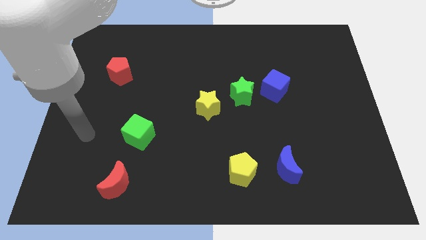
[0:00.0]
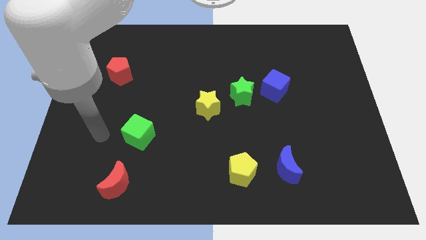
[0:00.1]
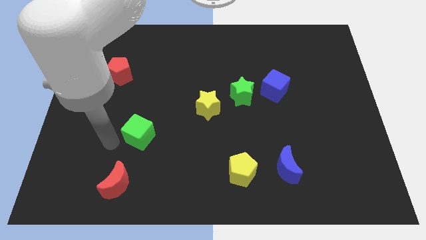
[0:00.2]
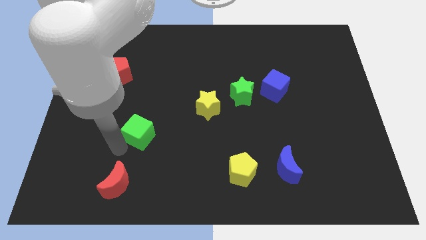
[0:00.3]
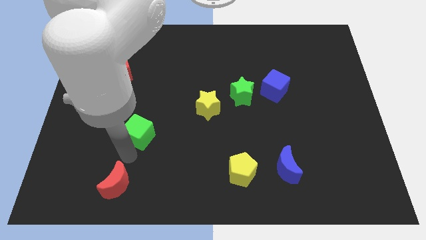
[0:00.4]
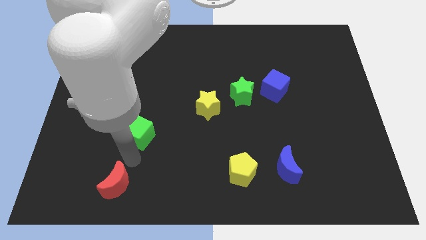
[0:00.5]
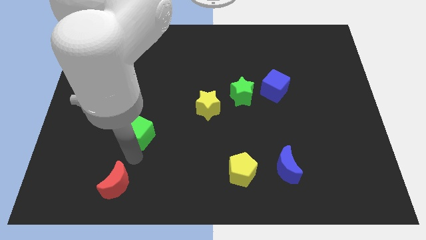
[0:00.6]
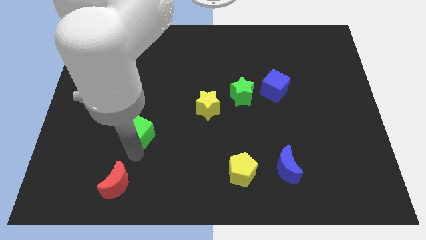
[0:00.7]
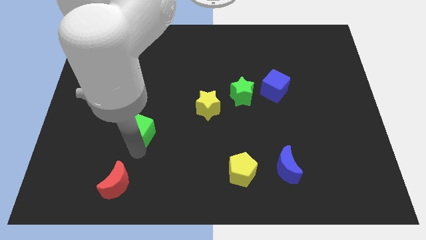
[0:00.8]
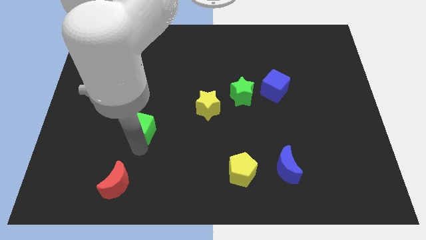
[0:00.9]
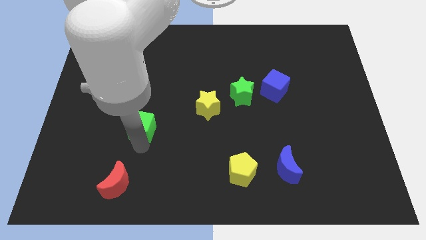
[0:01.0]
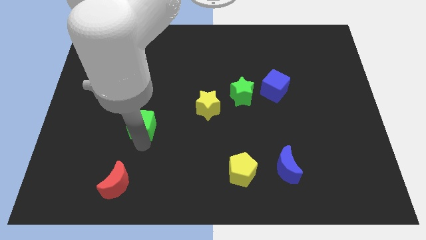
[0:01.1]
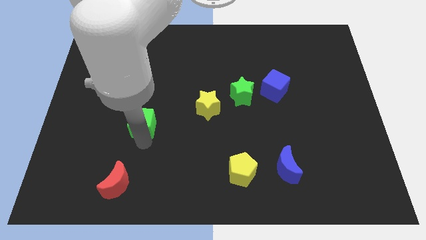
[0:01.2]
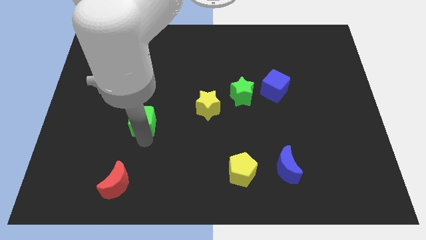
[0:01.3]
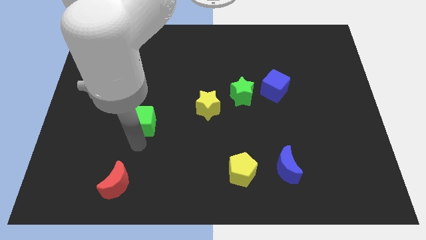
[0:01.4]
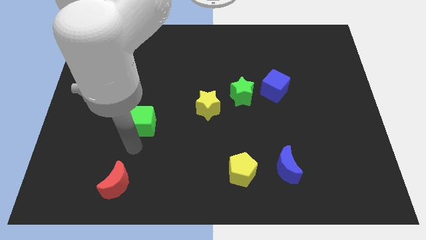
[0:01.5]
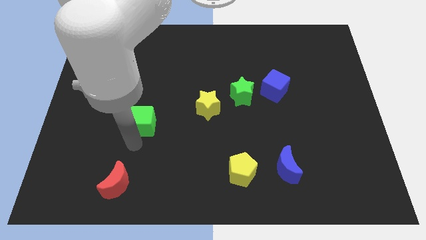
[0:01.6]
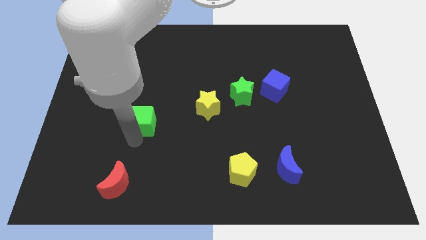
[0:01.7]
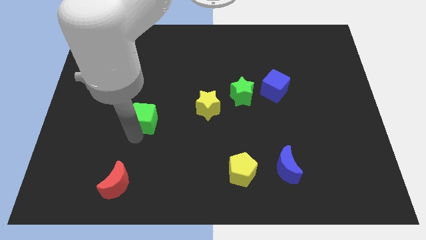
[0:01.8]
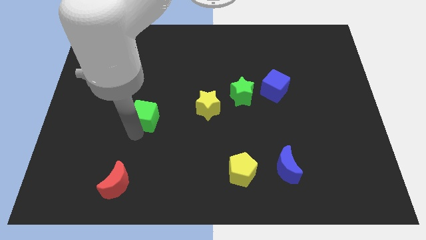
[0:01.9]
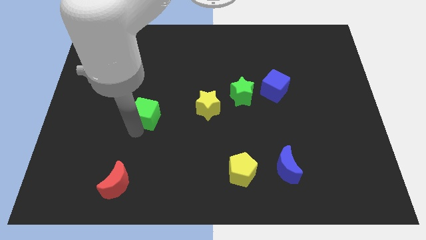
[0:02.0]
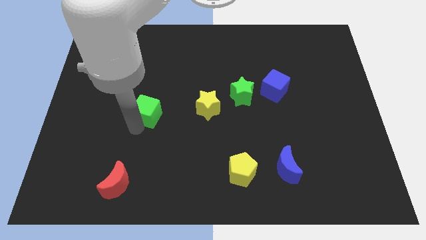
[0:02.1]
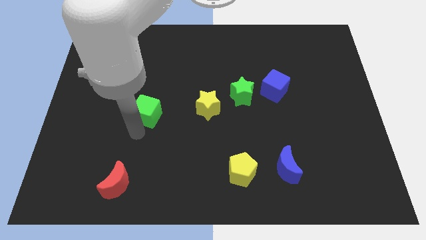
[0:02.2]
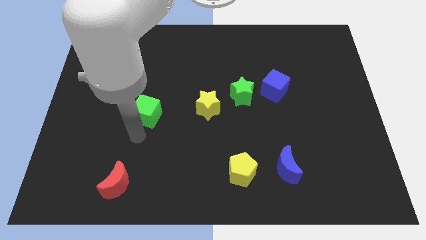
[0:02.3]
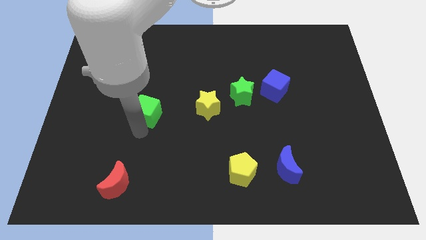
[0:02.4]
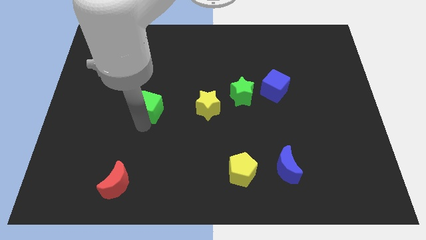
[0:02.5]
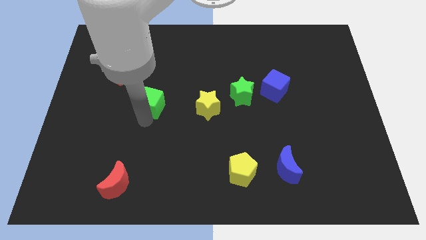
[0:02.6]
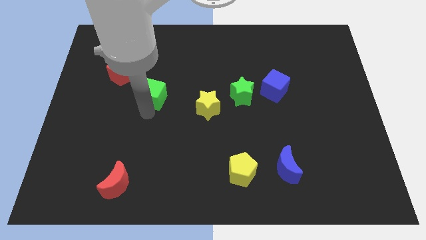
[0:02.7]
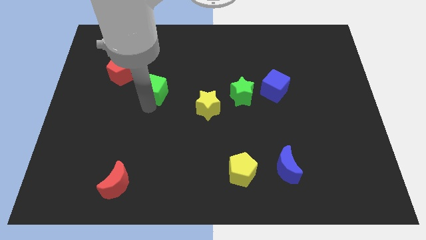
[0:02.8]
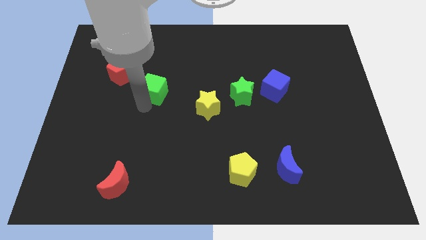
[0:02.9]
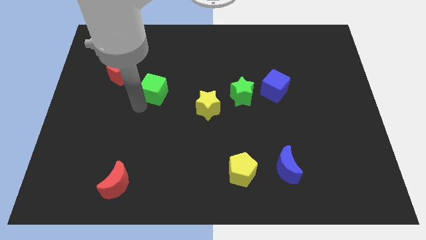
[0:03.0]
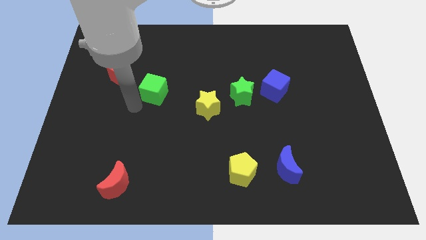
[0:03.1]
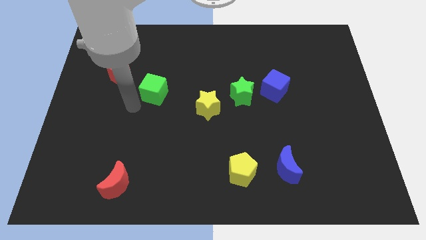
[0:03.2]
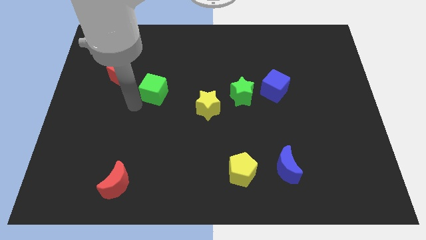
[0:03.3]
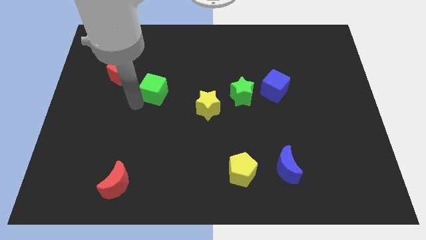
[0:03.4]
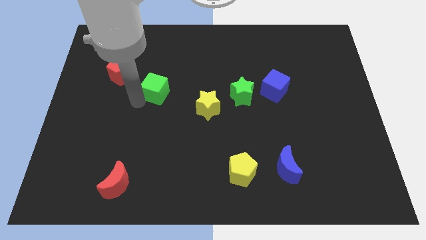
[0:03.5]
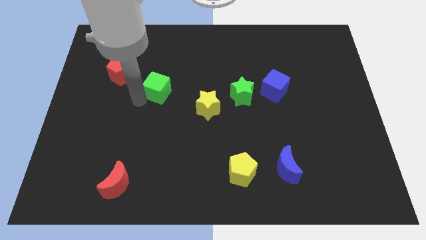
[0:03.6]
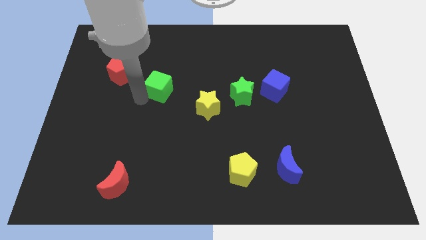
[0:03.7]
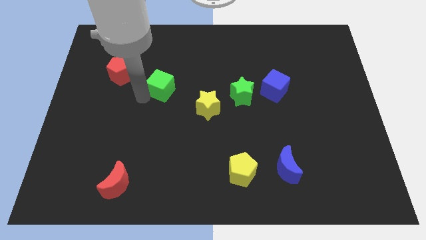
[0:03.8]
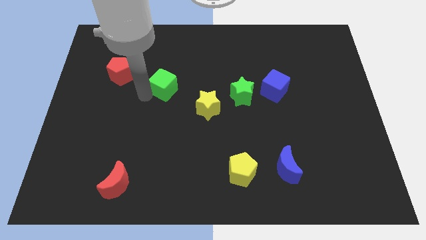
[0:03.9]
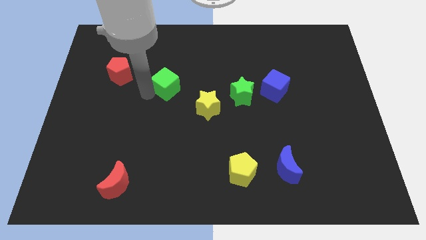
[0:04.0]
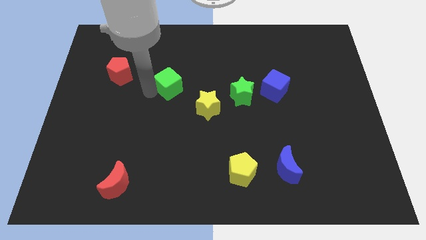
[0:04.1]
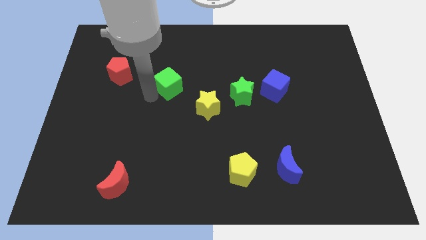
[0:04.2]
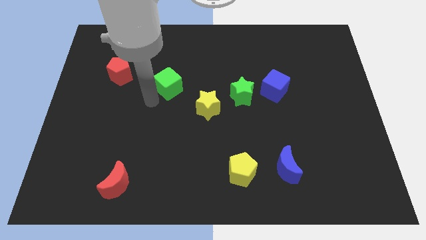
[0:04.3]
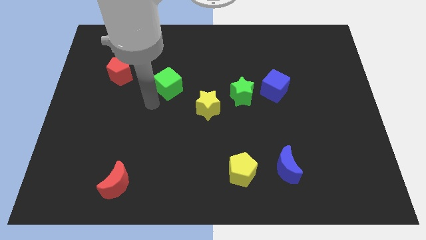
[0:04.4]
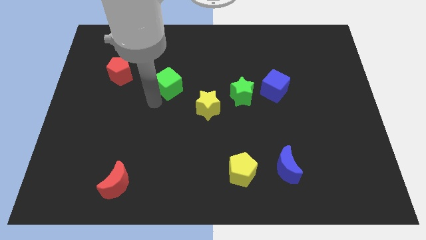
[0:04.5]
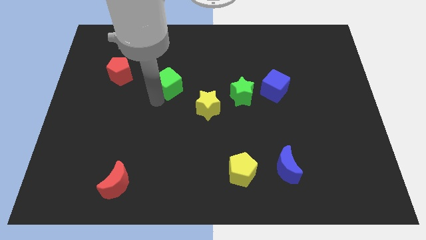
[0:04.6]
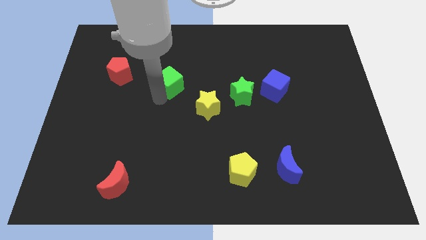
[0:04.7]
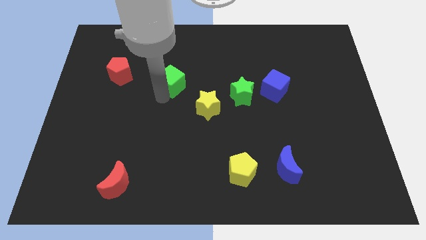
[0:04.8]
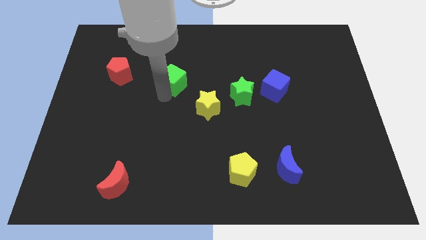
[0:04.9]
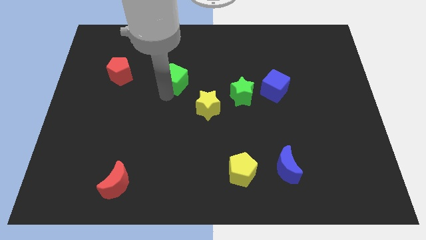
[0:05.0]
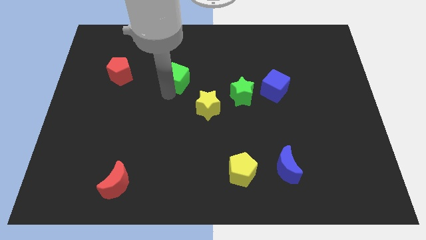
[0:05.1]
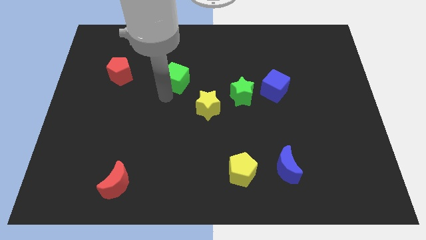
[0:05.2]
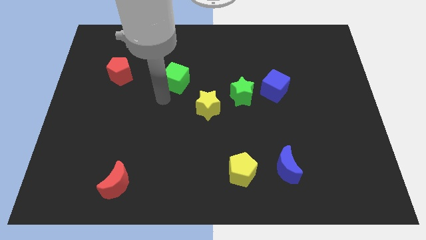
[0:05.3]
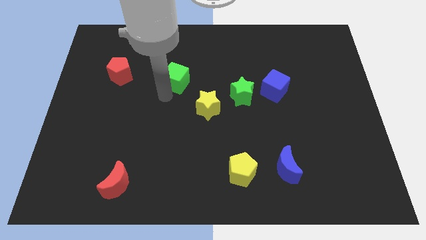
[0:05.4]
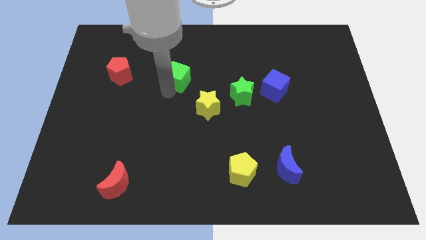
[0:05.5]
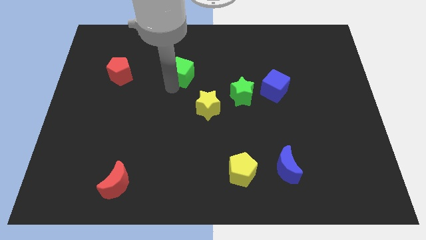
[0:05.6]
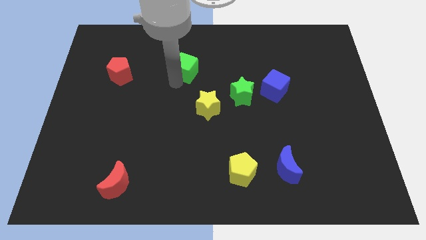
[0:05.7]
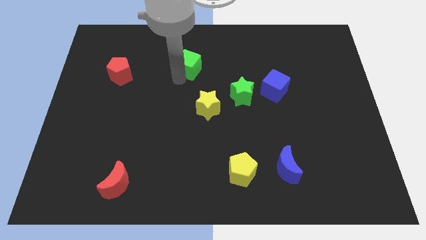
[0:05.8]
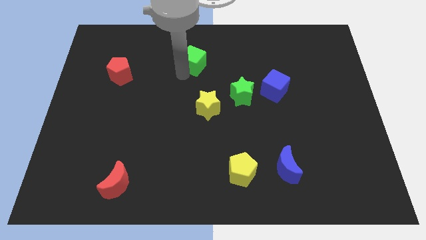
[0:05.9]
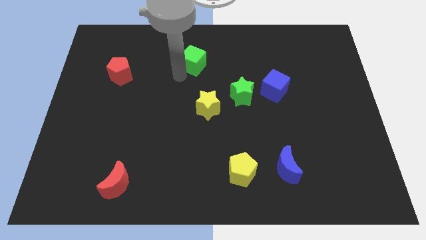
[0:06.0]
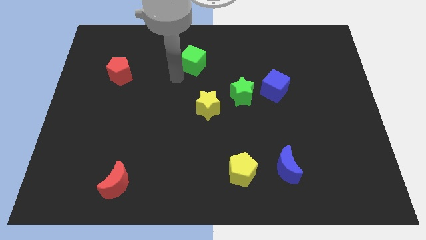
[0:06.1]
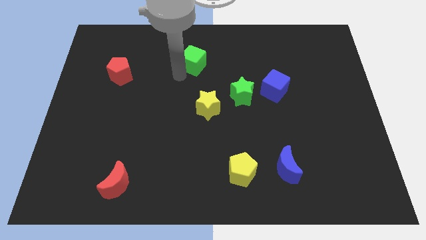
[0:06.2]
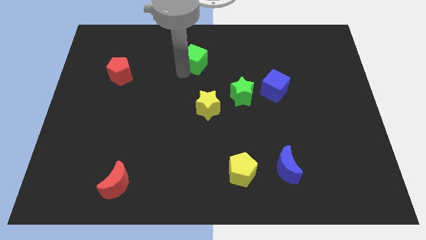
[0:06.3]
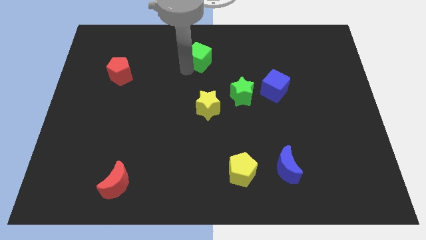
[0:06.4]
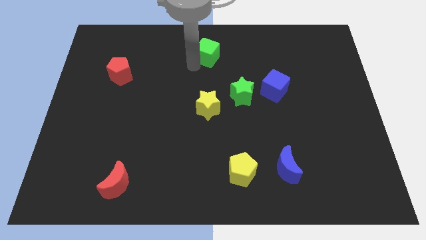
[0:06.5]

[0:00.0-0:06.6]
move the green cube to the towards your base
